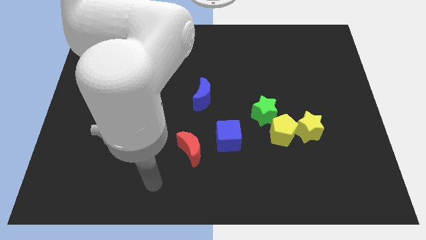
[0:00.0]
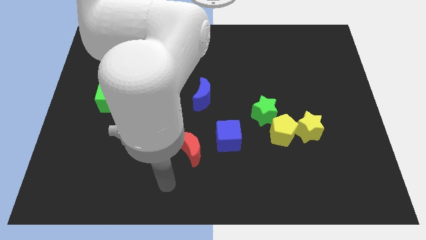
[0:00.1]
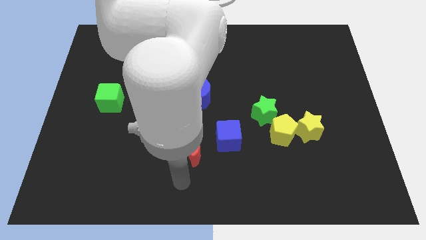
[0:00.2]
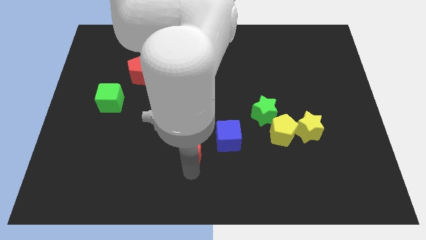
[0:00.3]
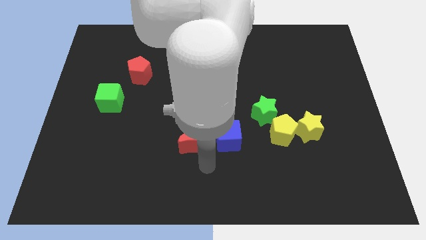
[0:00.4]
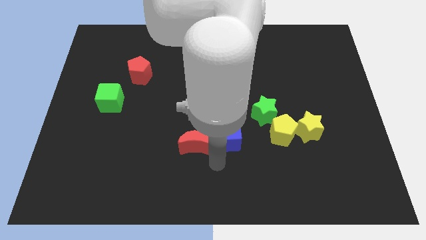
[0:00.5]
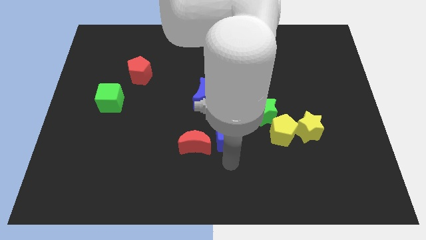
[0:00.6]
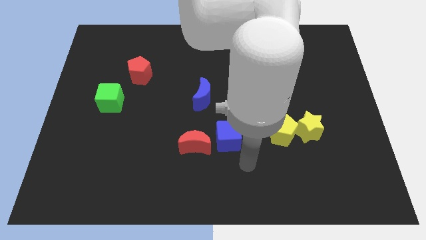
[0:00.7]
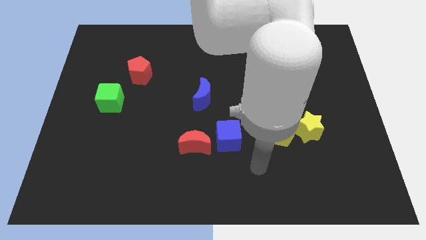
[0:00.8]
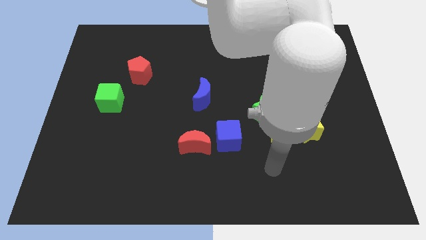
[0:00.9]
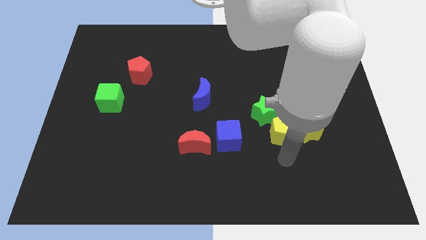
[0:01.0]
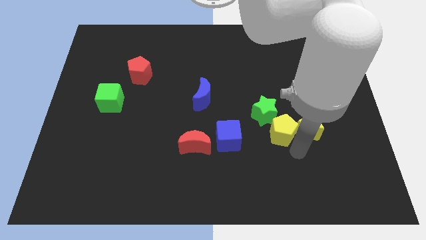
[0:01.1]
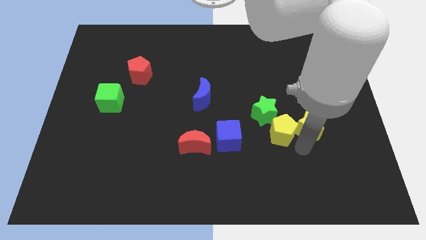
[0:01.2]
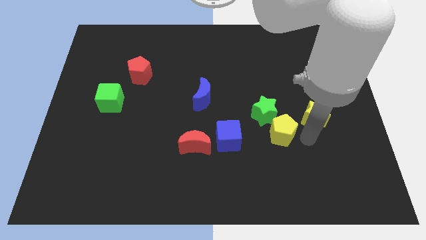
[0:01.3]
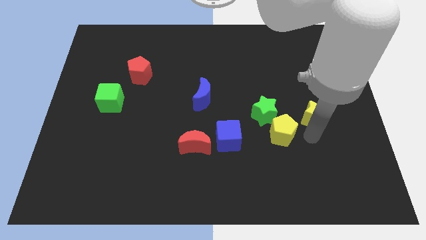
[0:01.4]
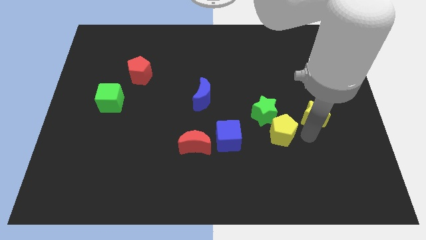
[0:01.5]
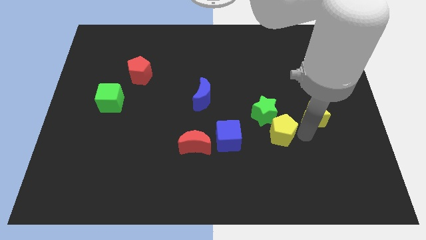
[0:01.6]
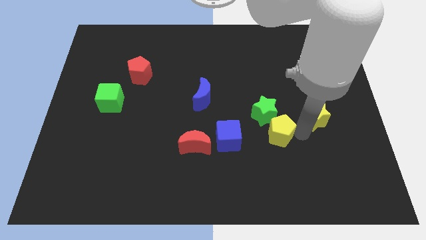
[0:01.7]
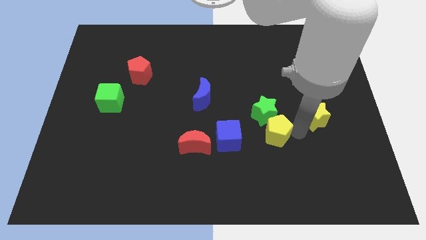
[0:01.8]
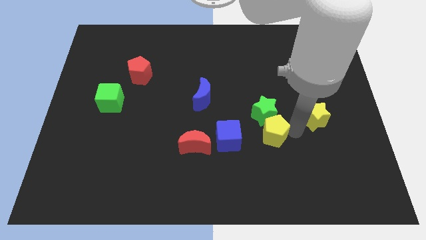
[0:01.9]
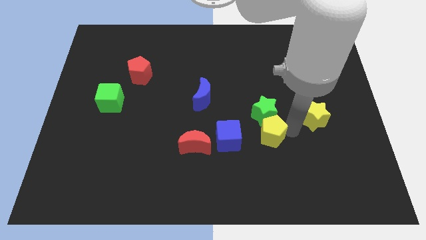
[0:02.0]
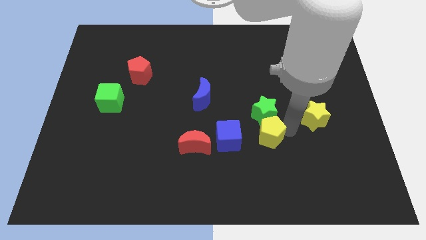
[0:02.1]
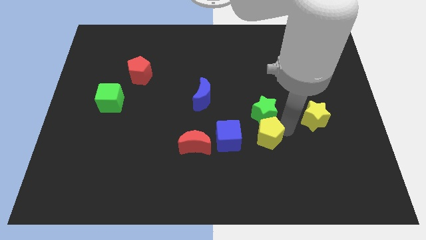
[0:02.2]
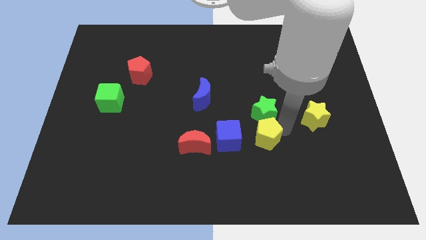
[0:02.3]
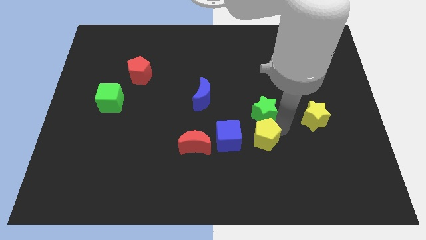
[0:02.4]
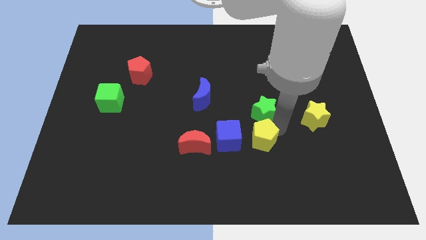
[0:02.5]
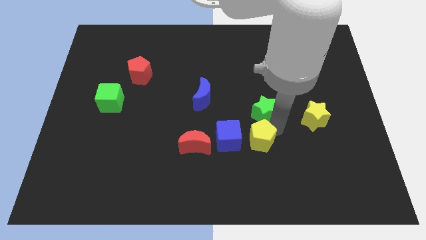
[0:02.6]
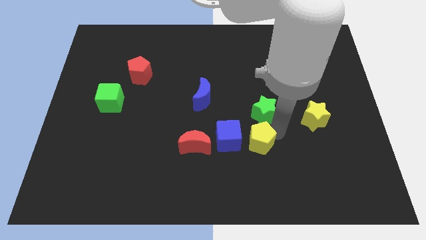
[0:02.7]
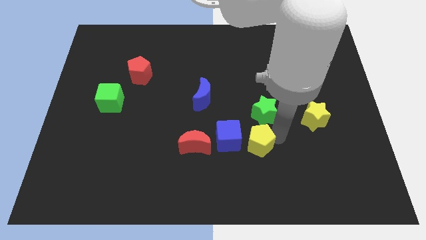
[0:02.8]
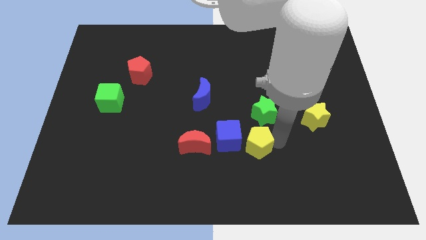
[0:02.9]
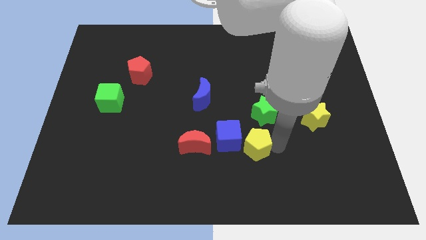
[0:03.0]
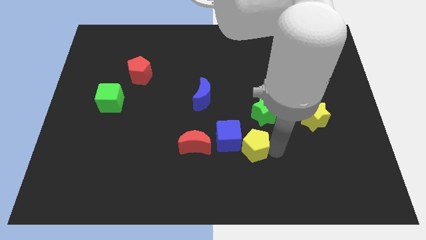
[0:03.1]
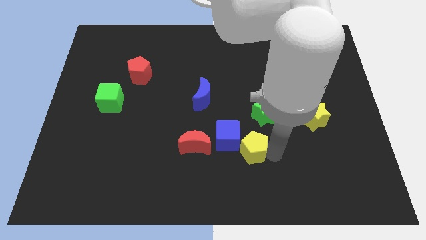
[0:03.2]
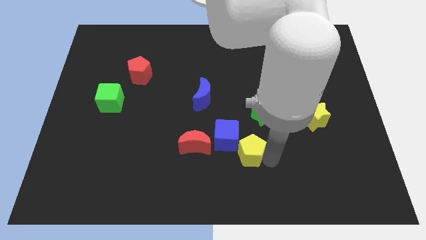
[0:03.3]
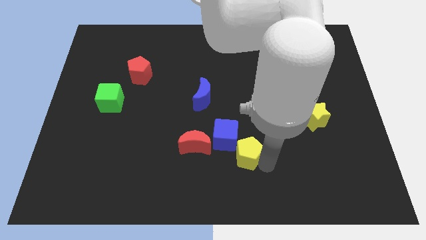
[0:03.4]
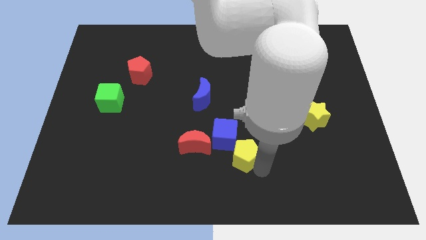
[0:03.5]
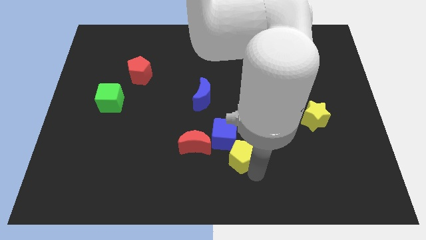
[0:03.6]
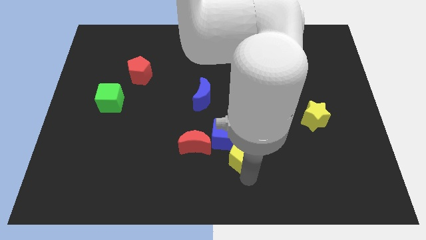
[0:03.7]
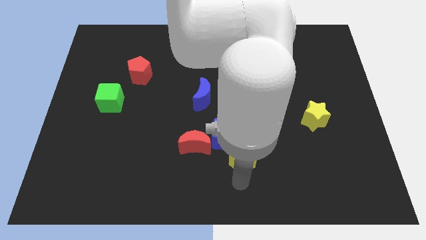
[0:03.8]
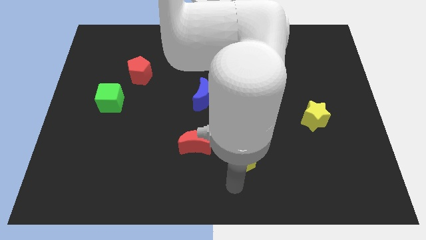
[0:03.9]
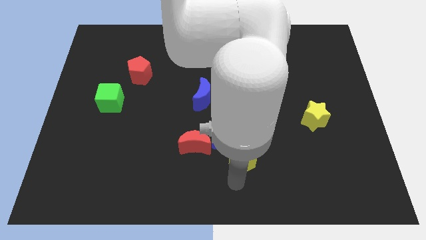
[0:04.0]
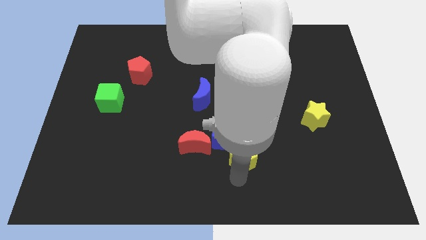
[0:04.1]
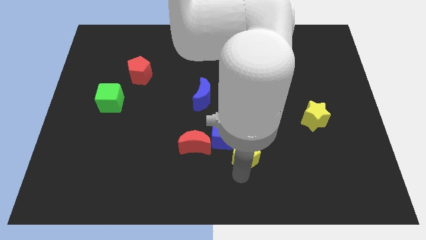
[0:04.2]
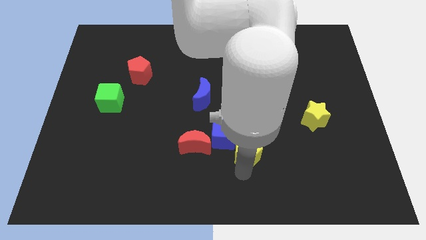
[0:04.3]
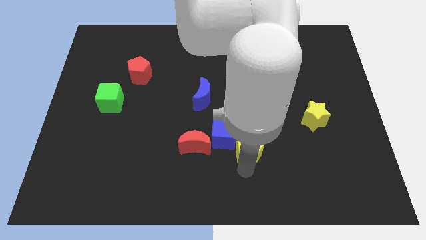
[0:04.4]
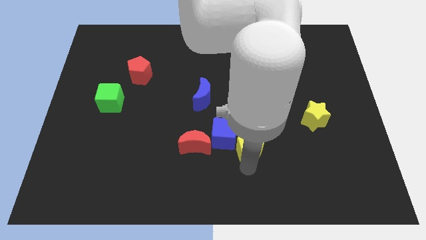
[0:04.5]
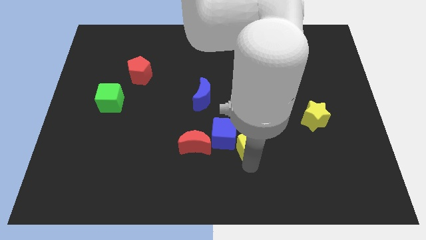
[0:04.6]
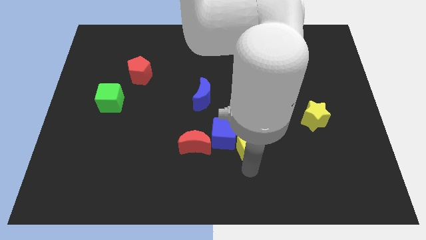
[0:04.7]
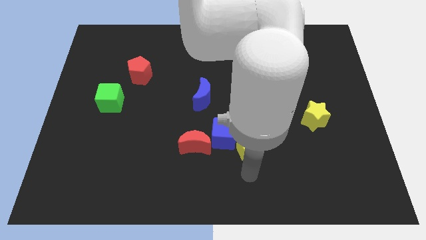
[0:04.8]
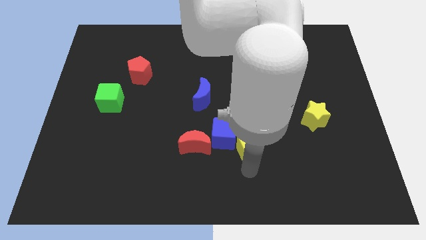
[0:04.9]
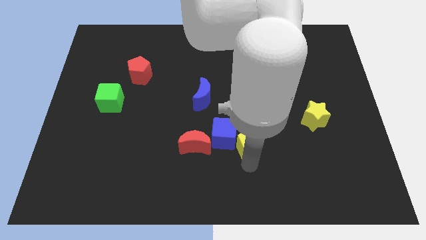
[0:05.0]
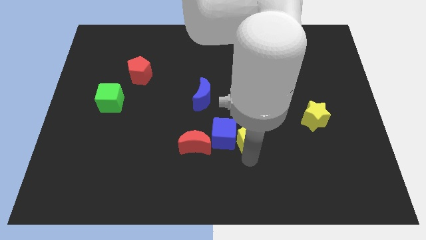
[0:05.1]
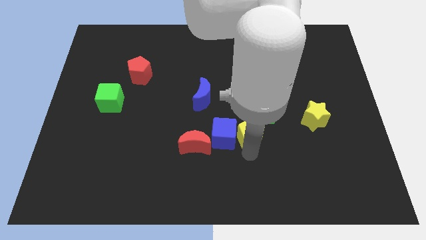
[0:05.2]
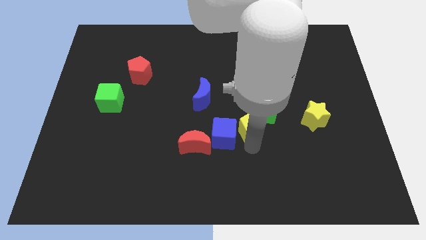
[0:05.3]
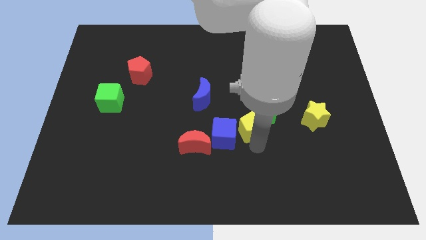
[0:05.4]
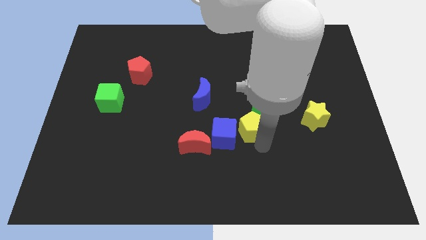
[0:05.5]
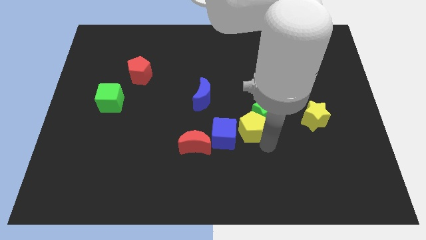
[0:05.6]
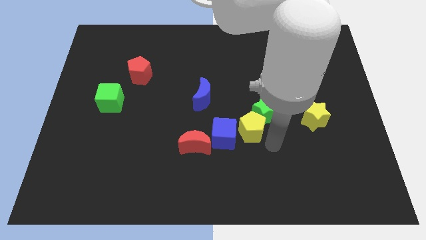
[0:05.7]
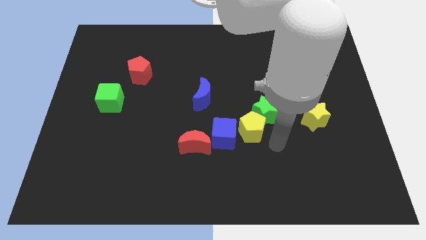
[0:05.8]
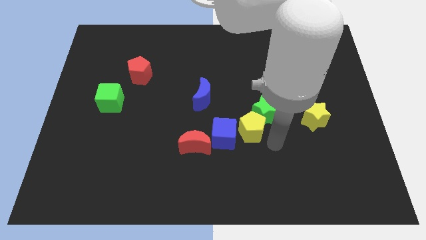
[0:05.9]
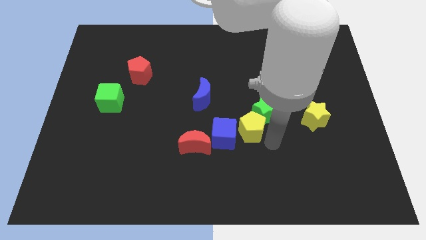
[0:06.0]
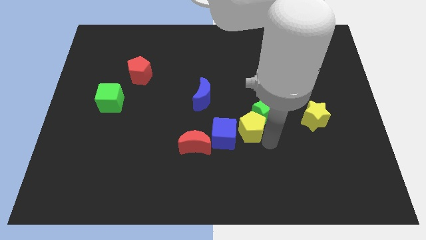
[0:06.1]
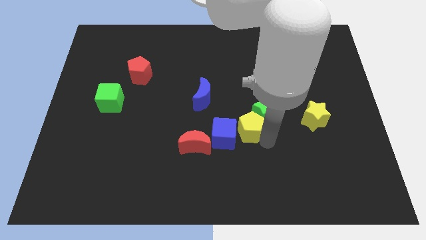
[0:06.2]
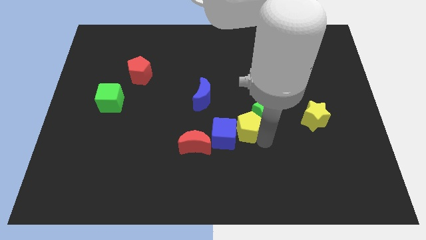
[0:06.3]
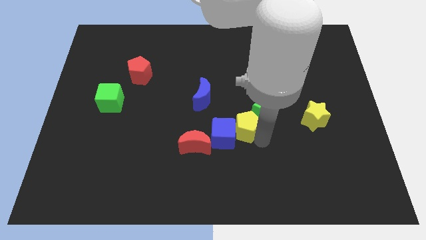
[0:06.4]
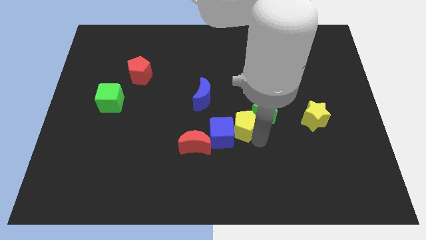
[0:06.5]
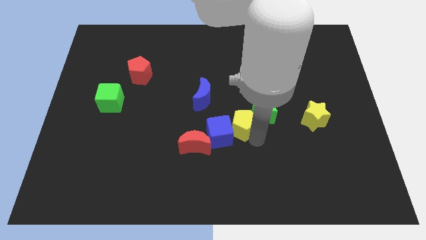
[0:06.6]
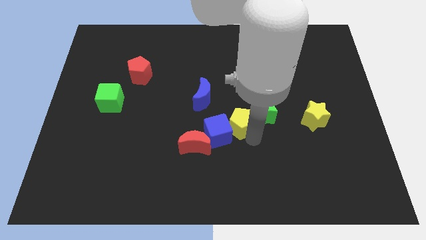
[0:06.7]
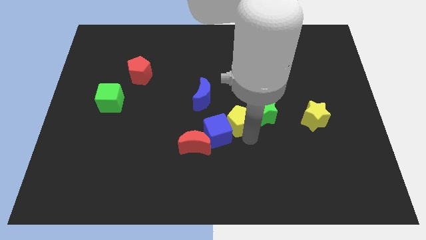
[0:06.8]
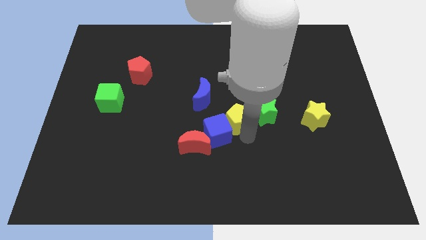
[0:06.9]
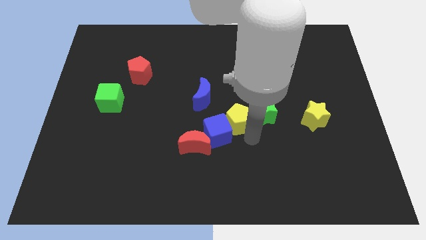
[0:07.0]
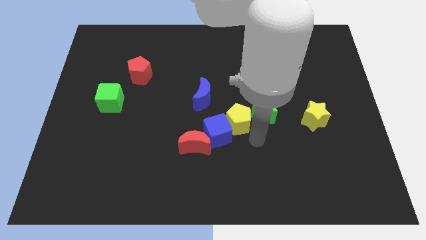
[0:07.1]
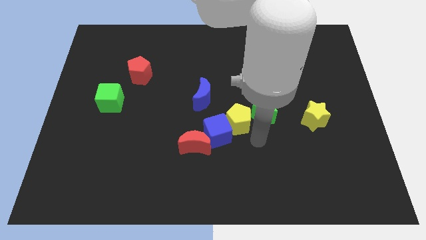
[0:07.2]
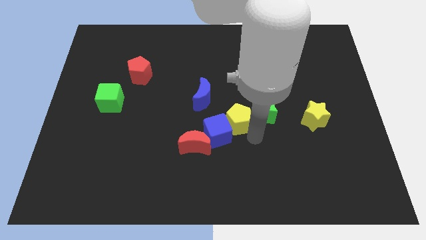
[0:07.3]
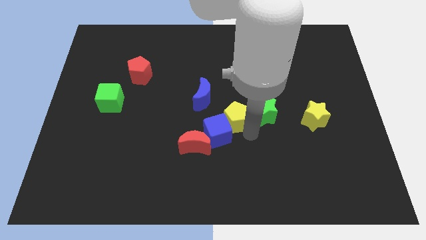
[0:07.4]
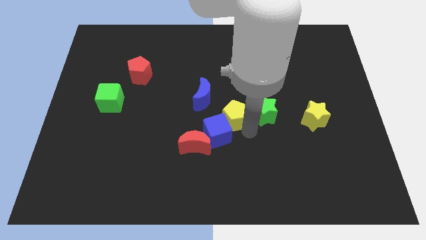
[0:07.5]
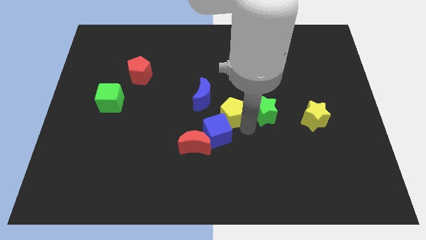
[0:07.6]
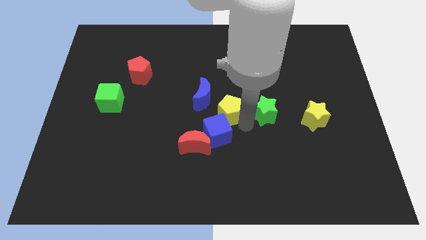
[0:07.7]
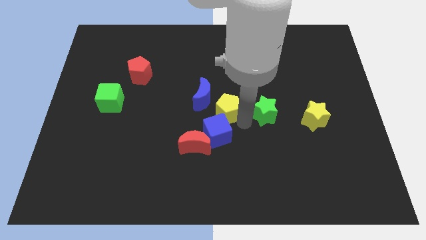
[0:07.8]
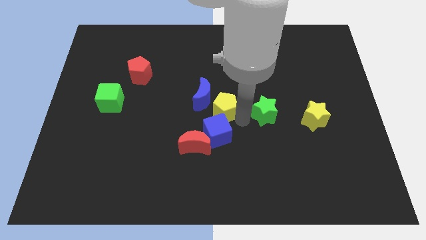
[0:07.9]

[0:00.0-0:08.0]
slide the yellow pentagon next to the blue moon
